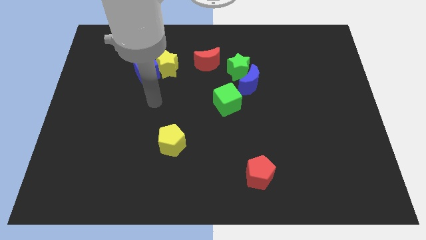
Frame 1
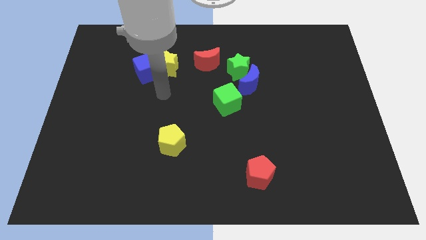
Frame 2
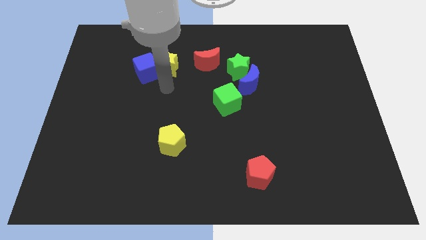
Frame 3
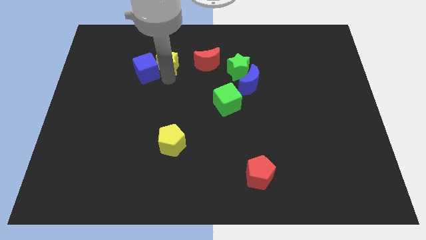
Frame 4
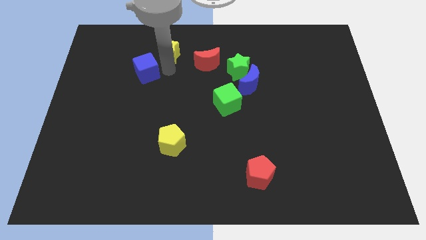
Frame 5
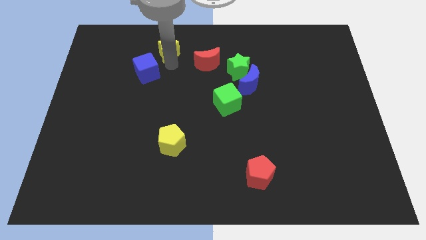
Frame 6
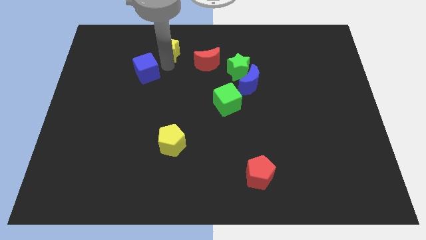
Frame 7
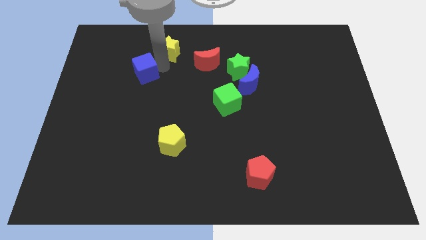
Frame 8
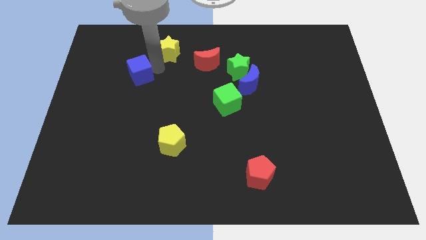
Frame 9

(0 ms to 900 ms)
separate the blue cube from the yellow star

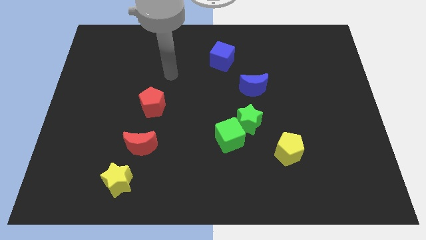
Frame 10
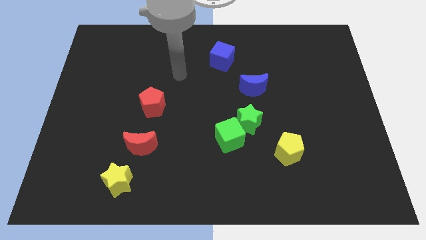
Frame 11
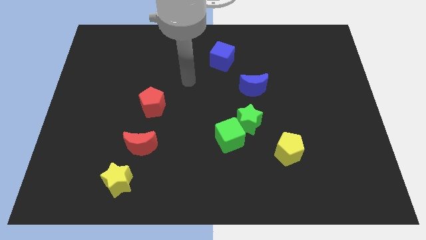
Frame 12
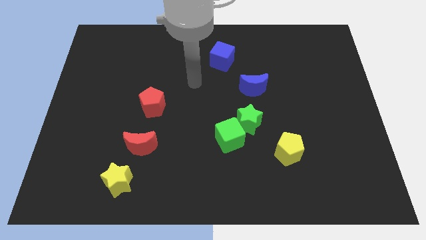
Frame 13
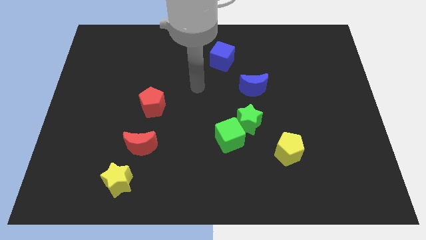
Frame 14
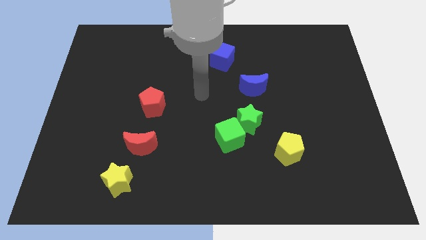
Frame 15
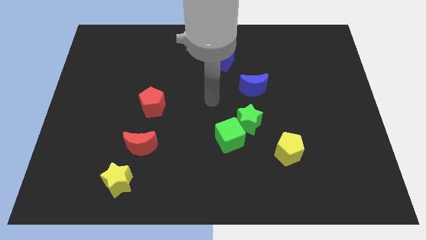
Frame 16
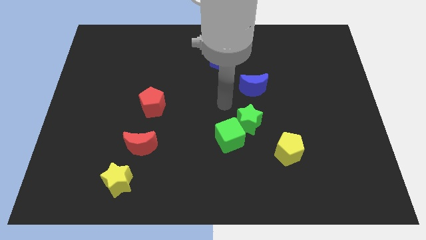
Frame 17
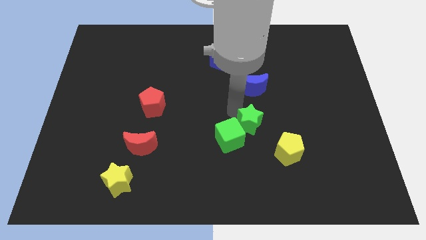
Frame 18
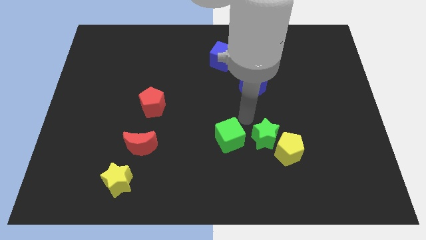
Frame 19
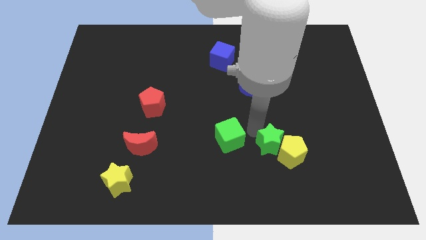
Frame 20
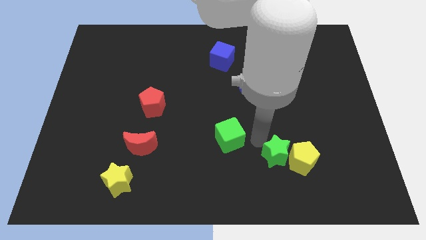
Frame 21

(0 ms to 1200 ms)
pull the green cube apart from the green star

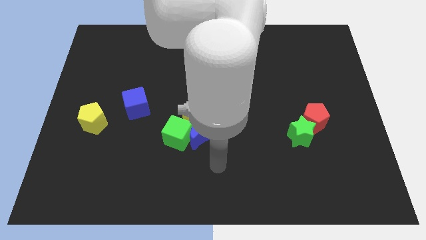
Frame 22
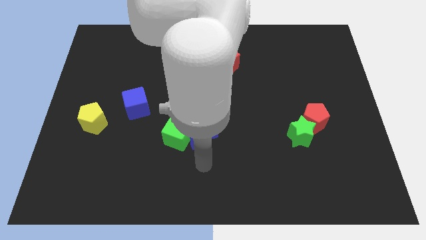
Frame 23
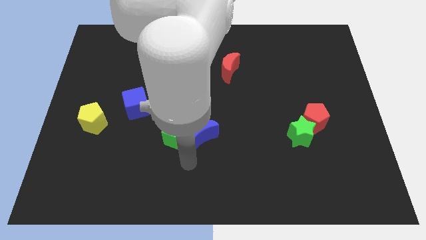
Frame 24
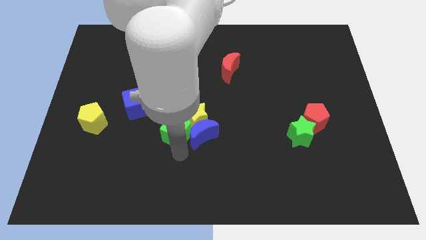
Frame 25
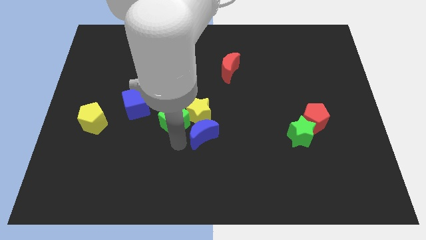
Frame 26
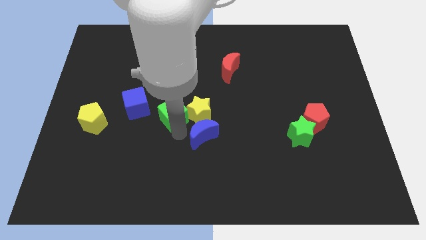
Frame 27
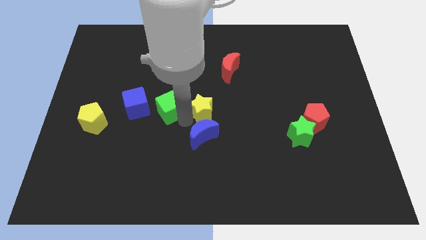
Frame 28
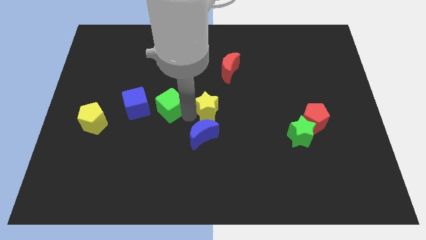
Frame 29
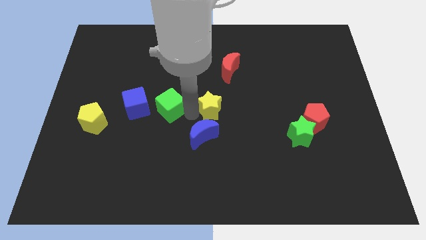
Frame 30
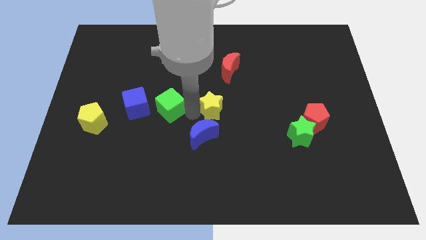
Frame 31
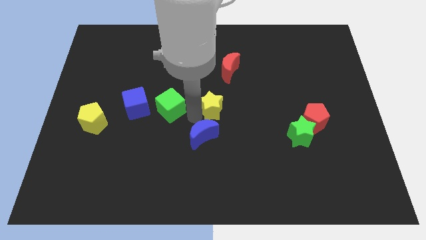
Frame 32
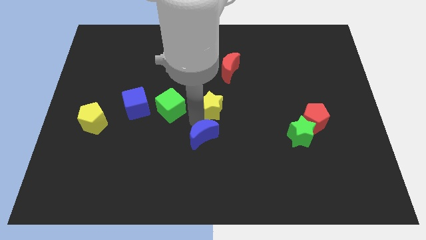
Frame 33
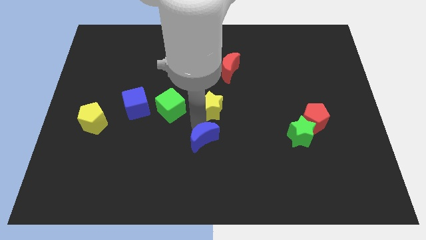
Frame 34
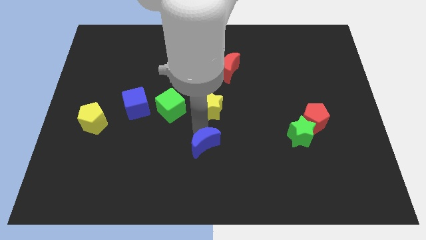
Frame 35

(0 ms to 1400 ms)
move the blue moon away from the yellow star and green cube

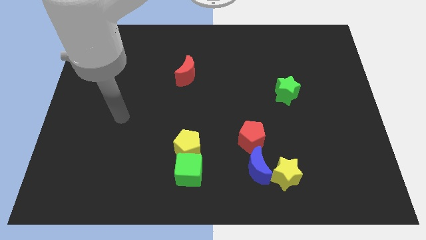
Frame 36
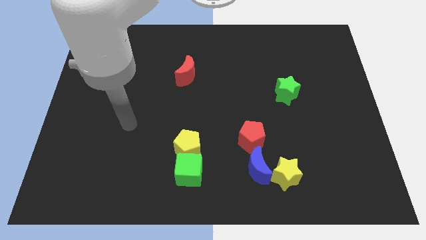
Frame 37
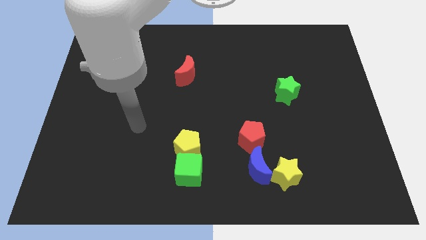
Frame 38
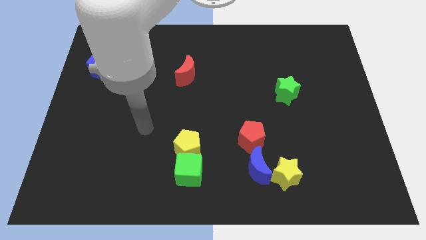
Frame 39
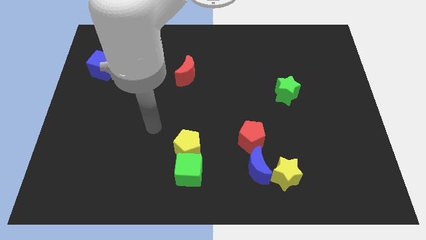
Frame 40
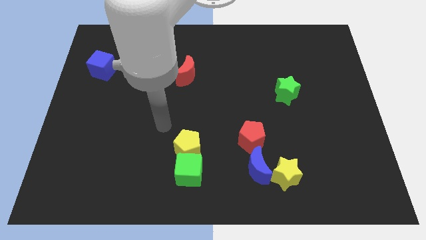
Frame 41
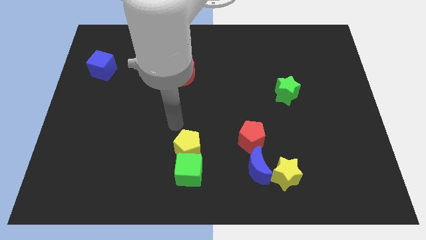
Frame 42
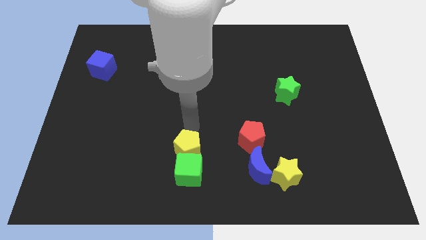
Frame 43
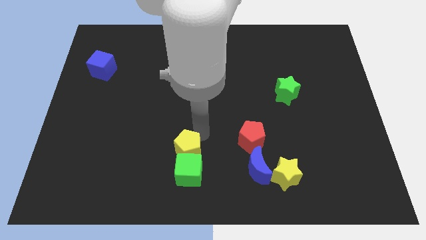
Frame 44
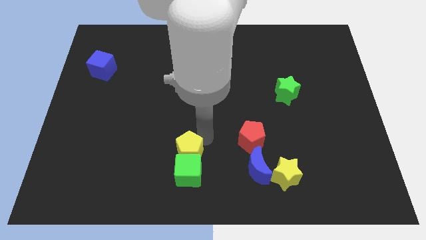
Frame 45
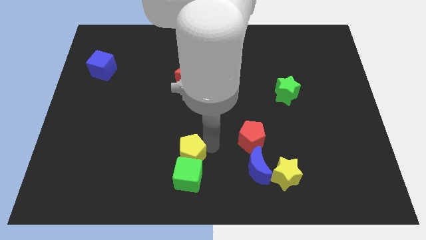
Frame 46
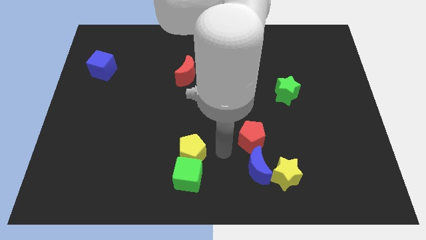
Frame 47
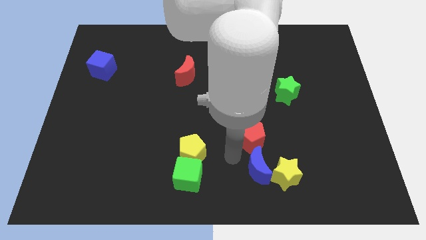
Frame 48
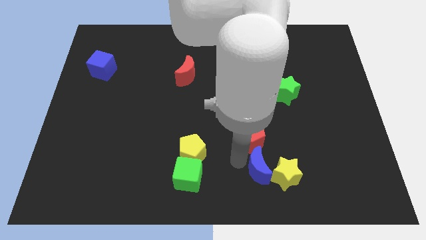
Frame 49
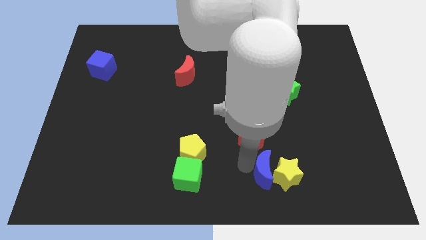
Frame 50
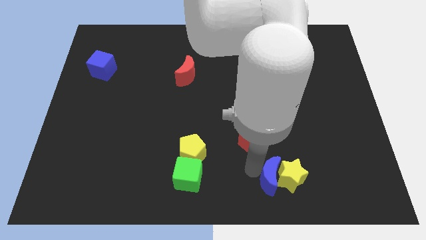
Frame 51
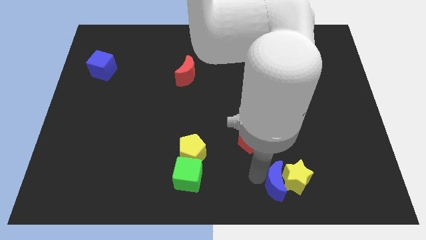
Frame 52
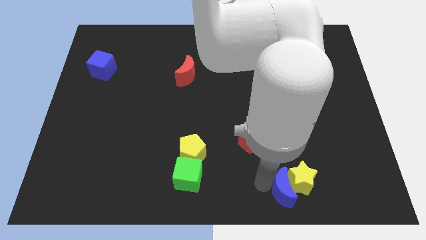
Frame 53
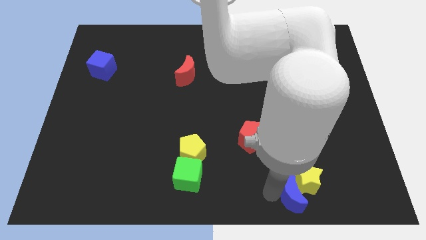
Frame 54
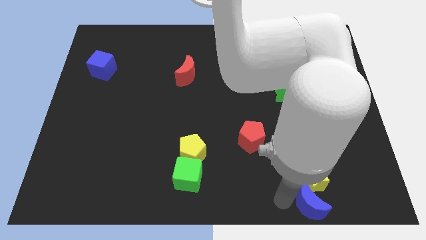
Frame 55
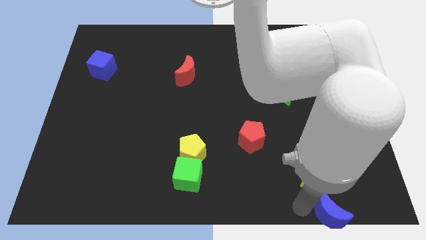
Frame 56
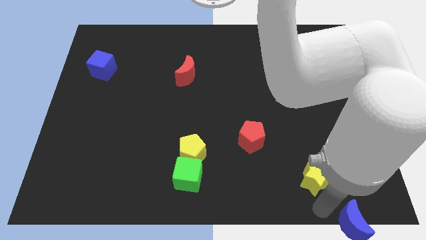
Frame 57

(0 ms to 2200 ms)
separate the yellow star from the blue moon

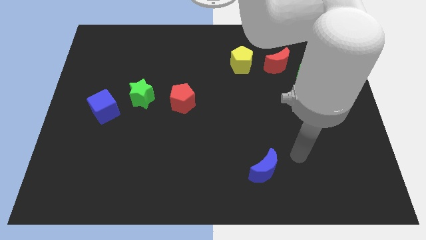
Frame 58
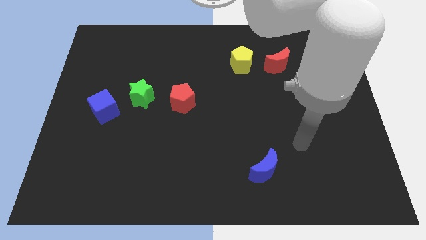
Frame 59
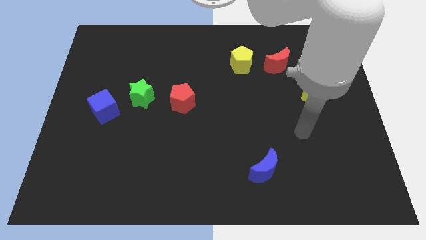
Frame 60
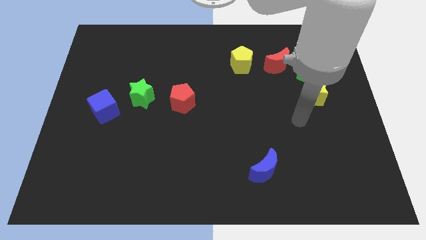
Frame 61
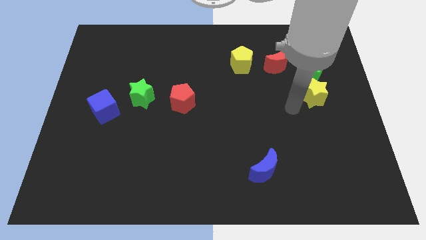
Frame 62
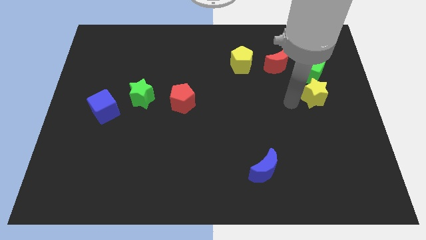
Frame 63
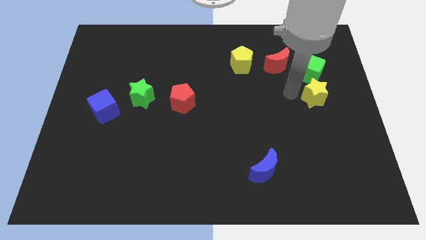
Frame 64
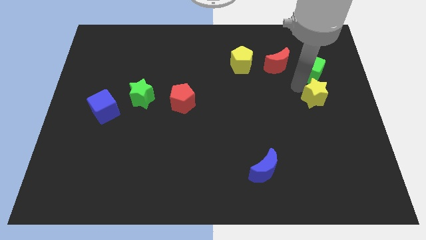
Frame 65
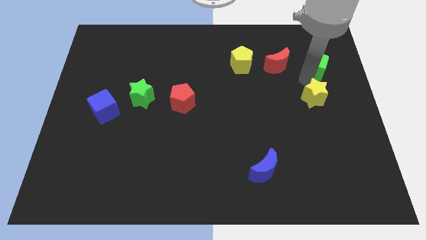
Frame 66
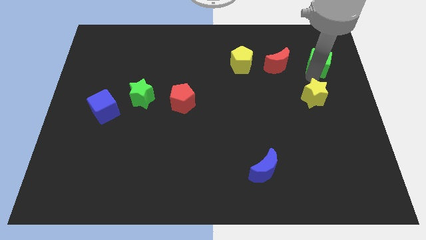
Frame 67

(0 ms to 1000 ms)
pull the yellow star apart from the green cube

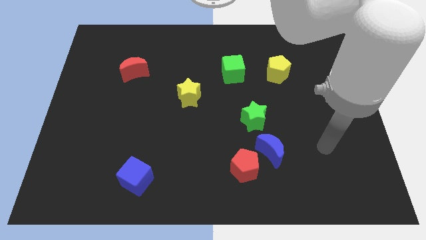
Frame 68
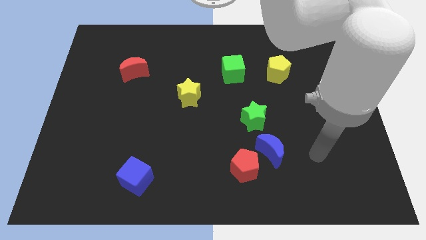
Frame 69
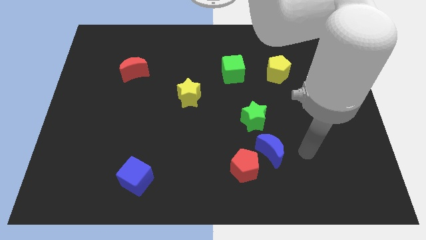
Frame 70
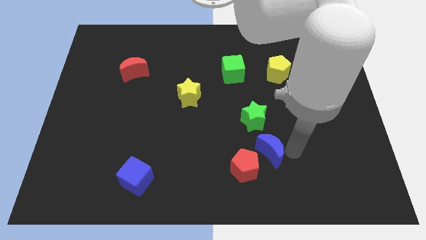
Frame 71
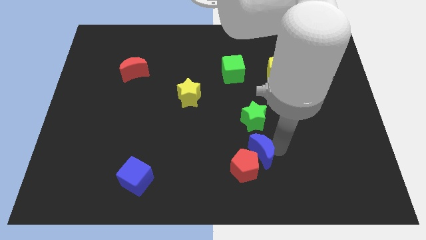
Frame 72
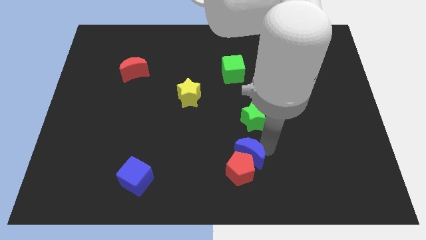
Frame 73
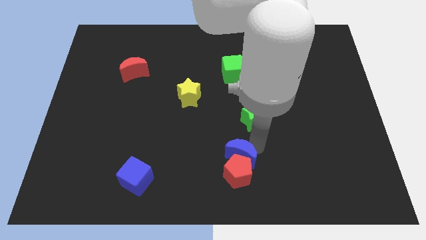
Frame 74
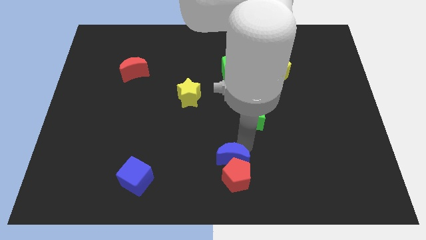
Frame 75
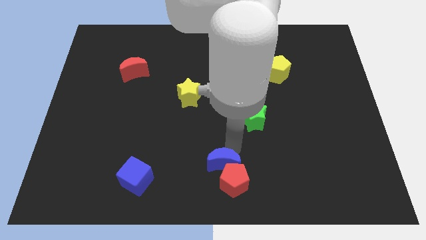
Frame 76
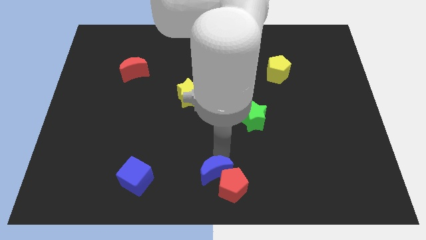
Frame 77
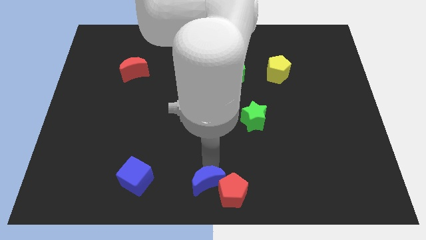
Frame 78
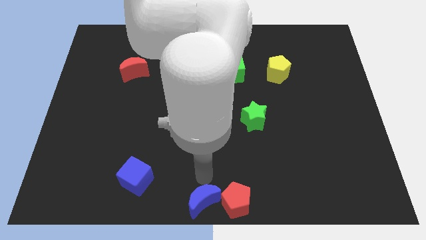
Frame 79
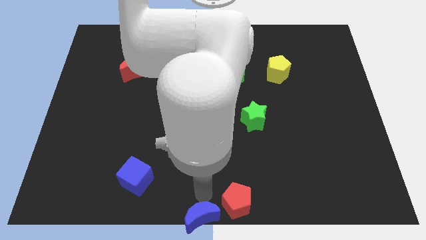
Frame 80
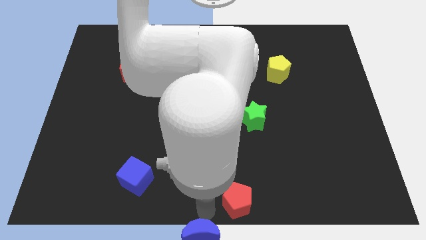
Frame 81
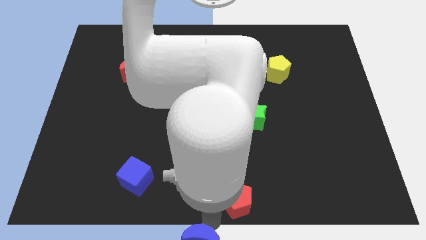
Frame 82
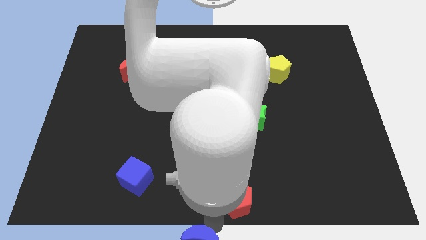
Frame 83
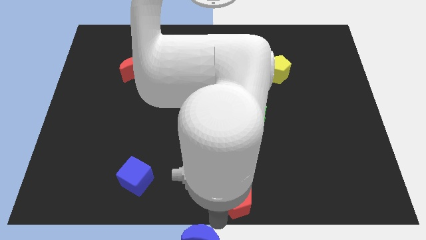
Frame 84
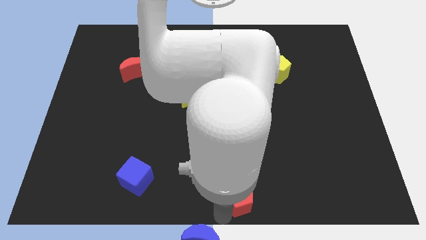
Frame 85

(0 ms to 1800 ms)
pull the red pentagon apart from the blue moon

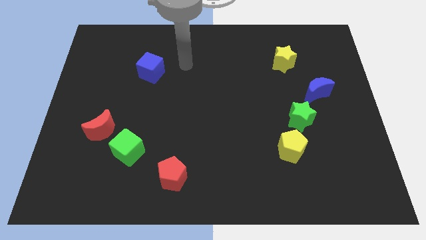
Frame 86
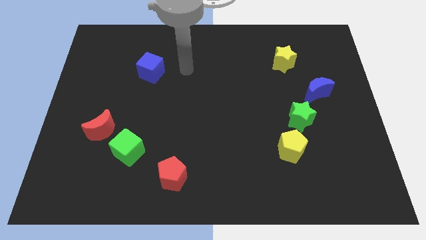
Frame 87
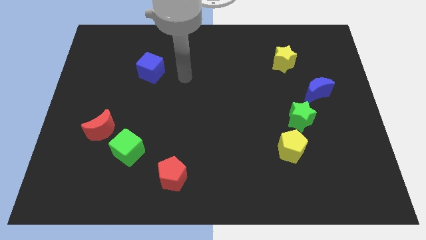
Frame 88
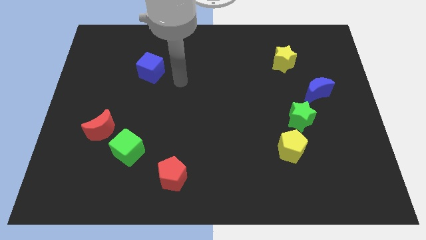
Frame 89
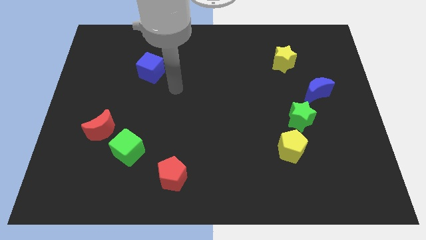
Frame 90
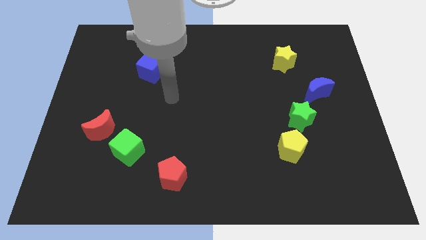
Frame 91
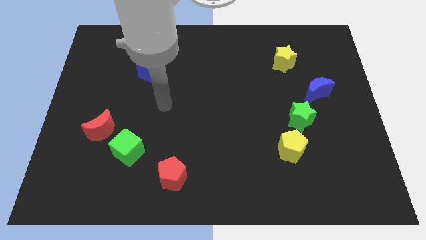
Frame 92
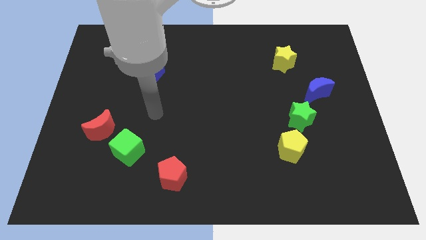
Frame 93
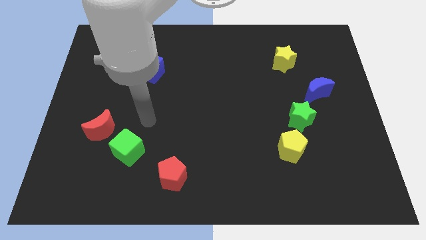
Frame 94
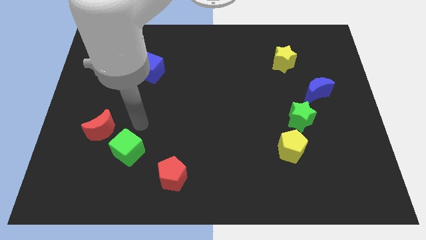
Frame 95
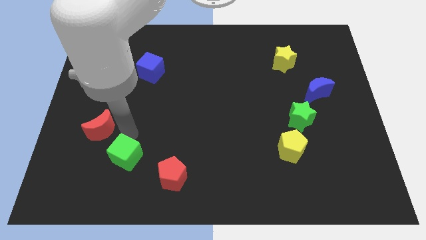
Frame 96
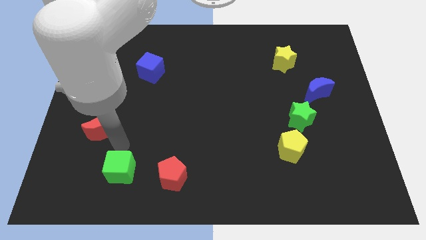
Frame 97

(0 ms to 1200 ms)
separate the red moon from the green cube
